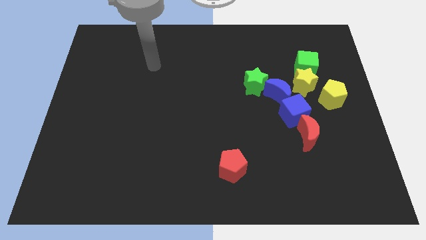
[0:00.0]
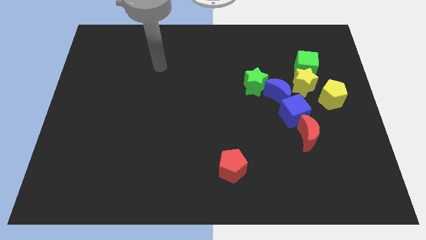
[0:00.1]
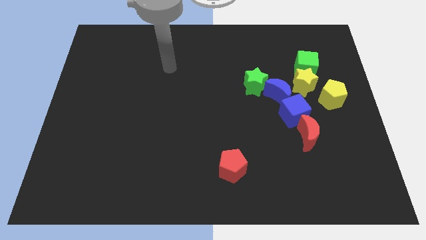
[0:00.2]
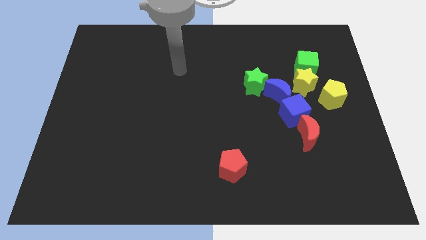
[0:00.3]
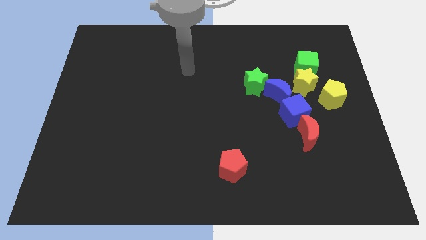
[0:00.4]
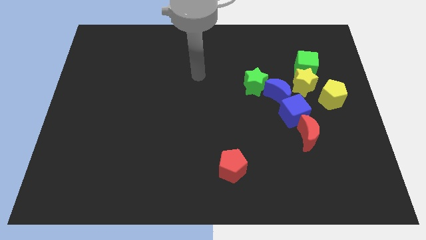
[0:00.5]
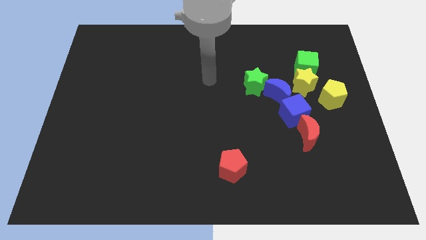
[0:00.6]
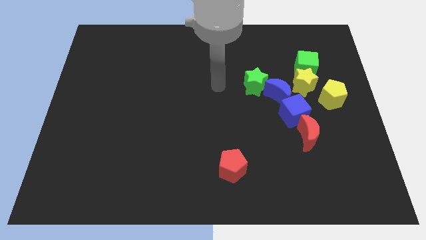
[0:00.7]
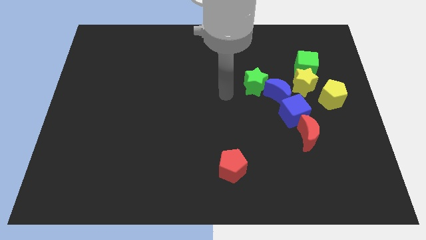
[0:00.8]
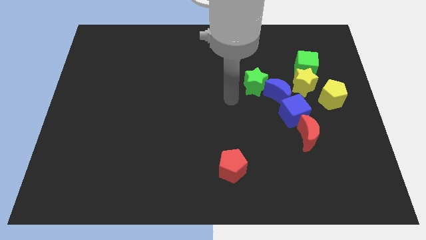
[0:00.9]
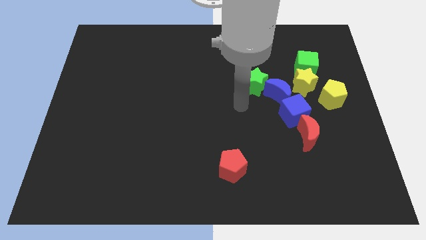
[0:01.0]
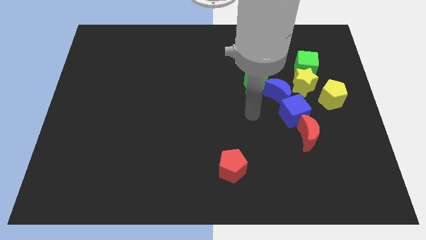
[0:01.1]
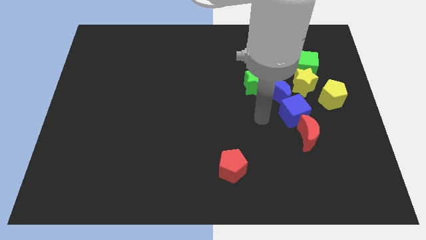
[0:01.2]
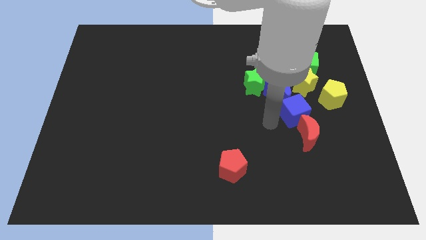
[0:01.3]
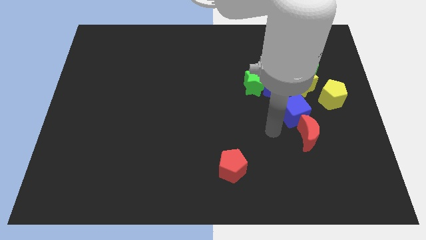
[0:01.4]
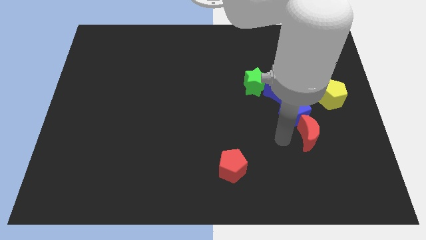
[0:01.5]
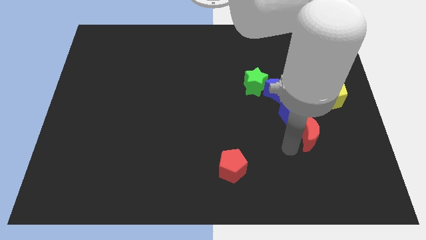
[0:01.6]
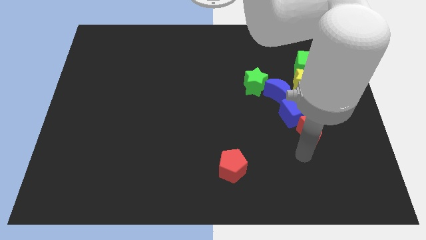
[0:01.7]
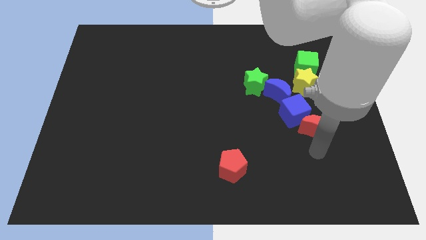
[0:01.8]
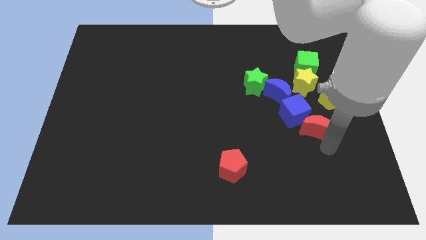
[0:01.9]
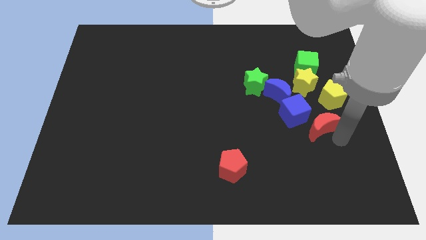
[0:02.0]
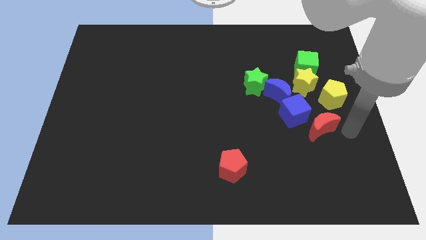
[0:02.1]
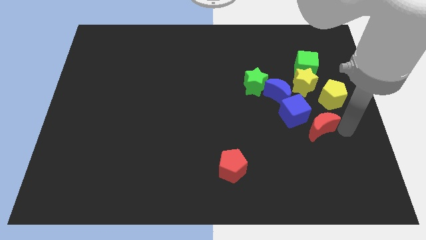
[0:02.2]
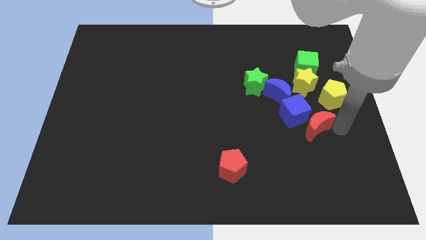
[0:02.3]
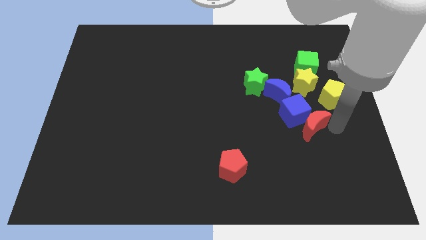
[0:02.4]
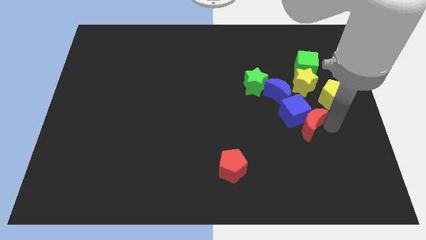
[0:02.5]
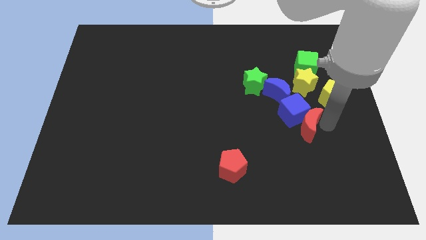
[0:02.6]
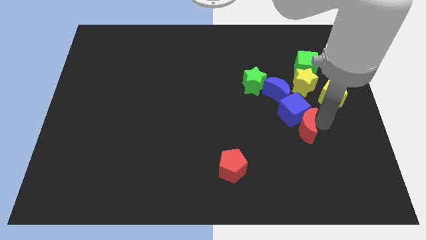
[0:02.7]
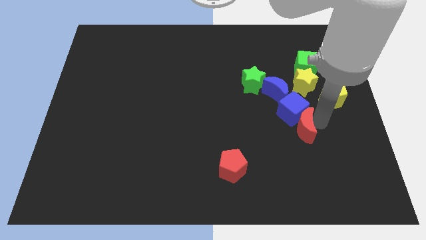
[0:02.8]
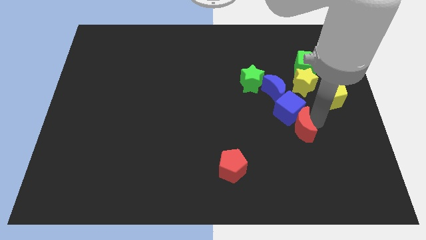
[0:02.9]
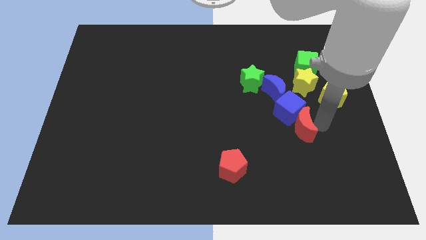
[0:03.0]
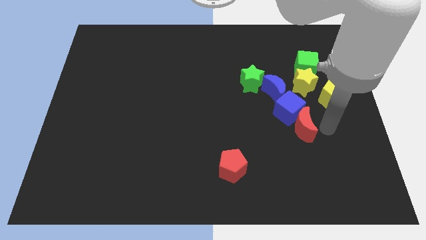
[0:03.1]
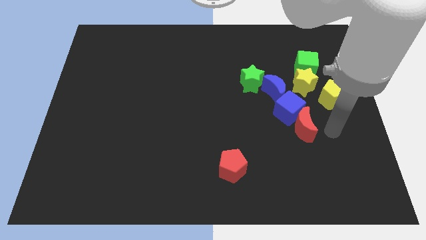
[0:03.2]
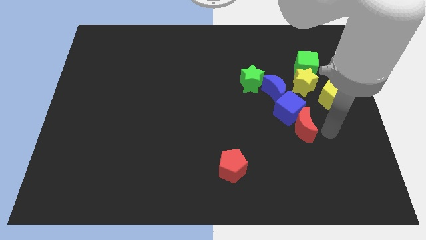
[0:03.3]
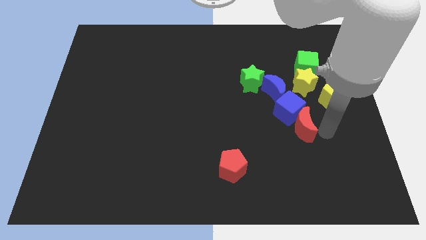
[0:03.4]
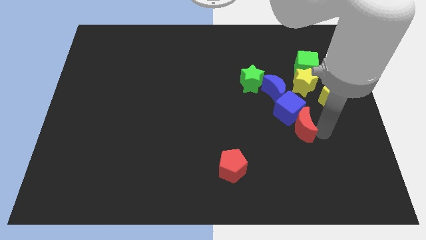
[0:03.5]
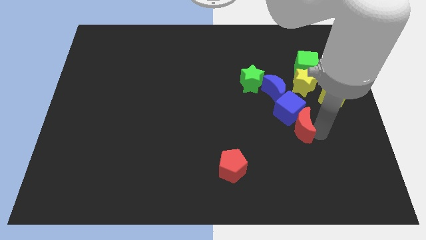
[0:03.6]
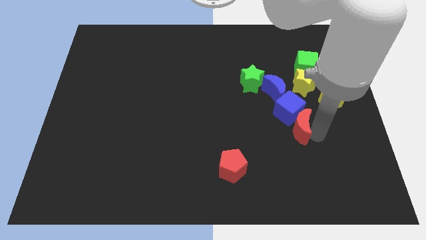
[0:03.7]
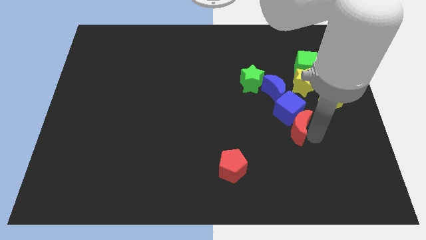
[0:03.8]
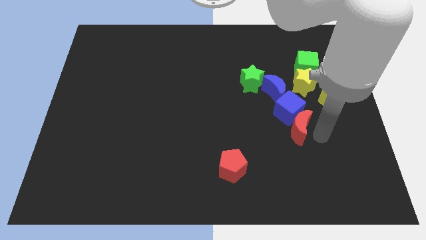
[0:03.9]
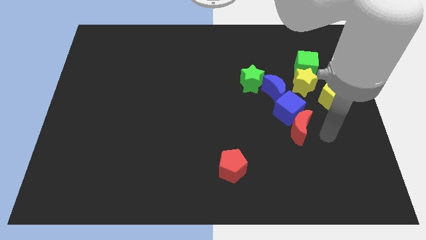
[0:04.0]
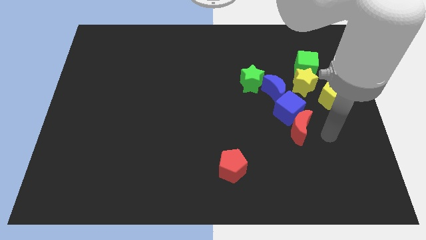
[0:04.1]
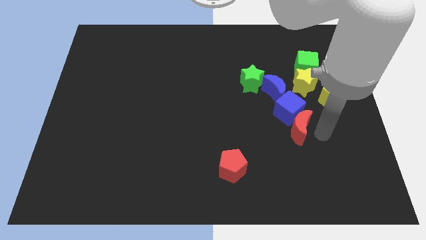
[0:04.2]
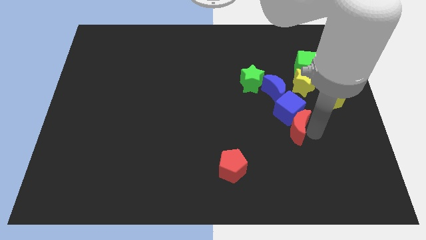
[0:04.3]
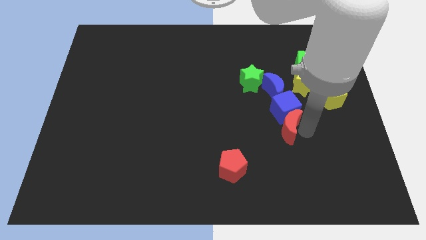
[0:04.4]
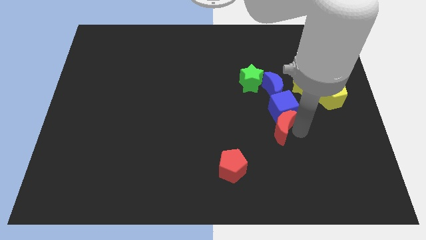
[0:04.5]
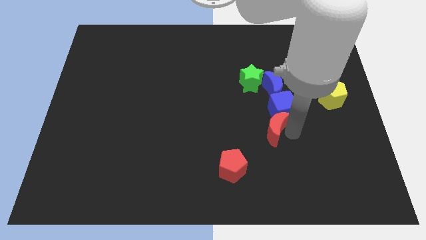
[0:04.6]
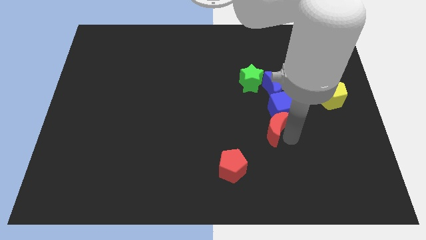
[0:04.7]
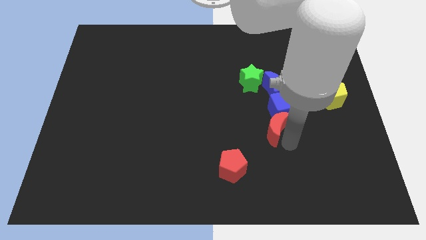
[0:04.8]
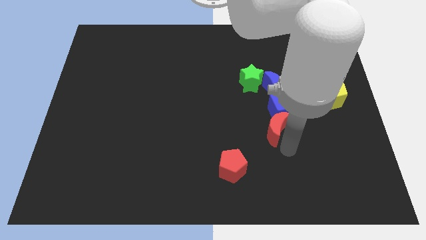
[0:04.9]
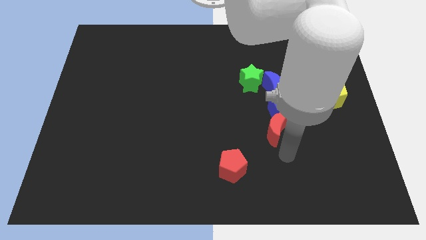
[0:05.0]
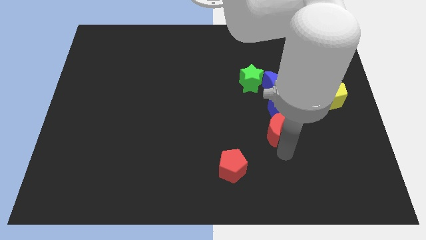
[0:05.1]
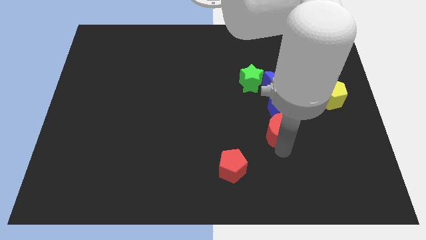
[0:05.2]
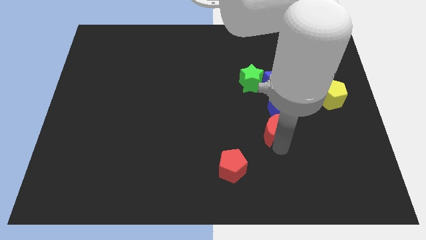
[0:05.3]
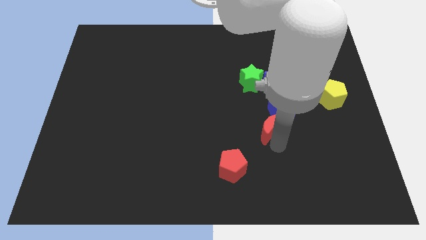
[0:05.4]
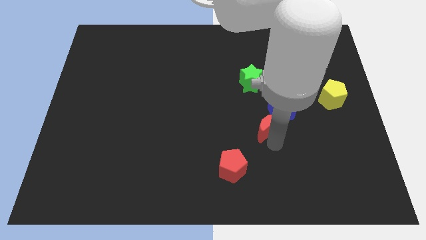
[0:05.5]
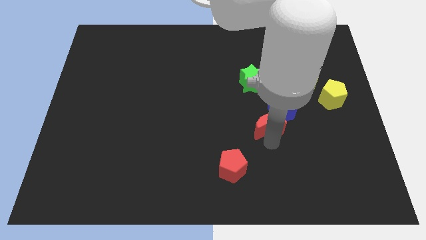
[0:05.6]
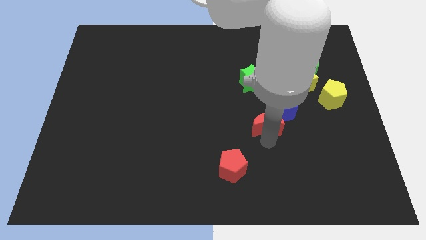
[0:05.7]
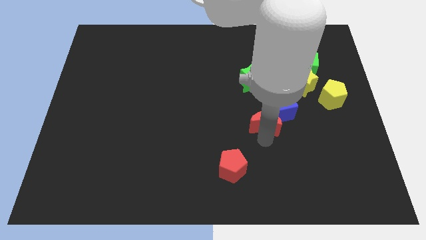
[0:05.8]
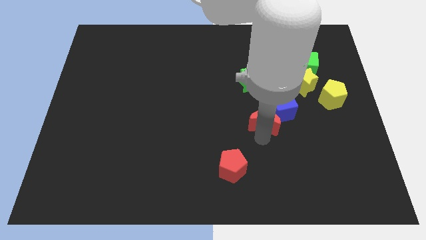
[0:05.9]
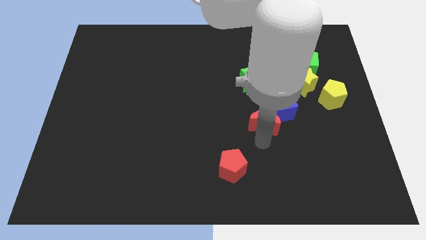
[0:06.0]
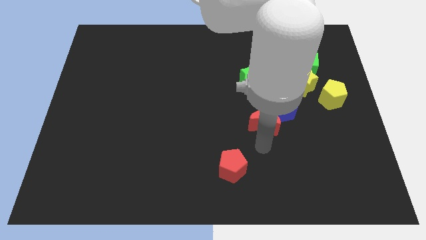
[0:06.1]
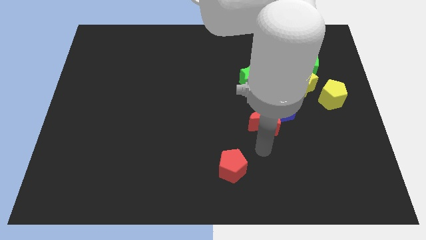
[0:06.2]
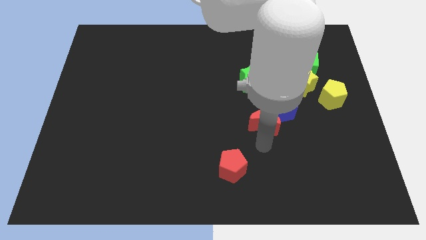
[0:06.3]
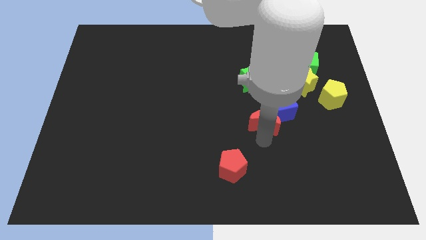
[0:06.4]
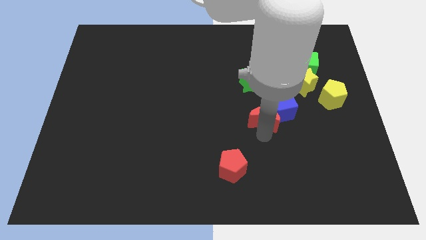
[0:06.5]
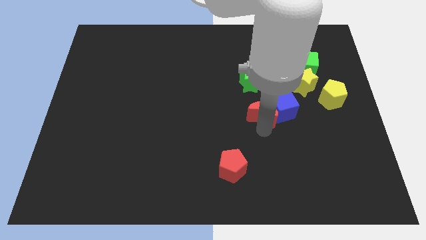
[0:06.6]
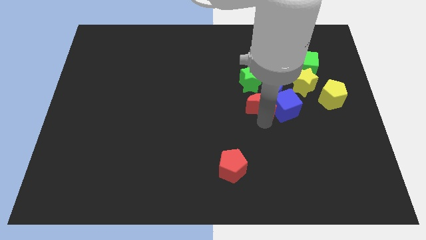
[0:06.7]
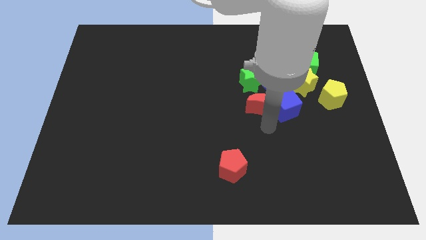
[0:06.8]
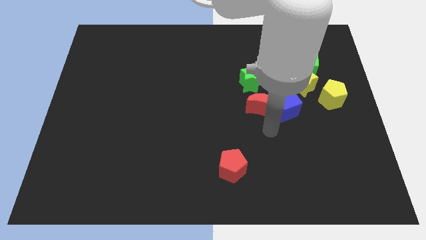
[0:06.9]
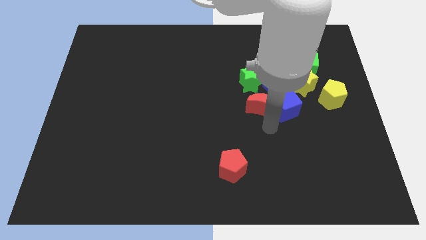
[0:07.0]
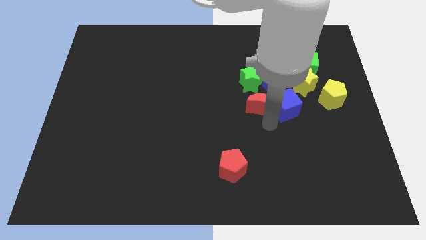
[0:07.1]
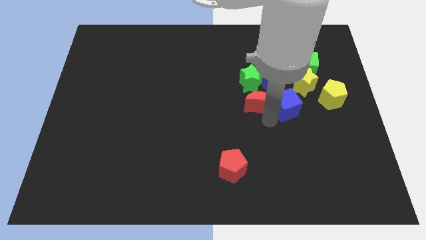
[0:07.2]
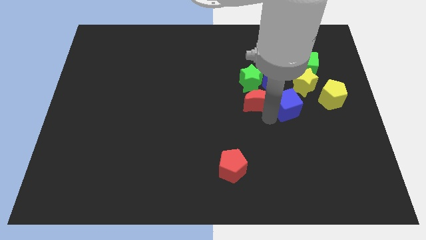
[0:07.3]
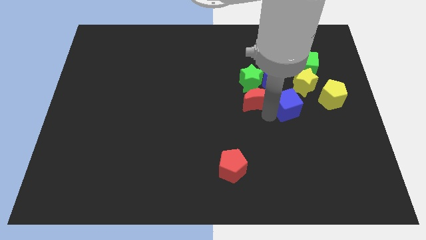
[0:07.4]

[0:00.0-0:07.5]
put the red moon to the green star
